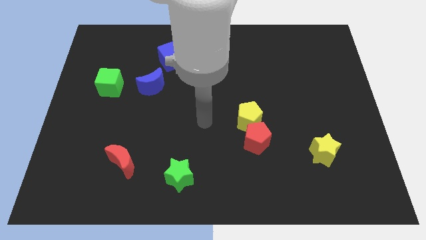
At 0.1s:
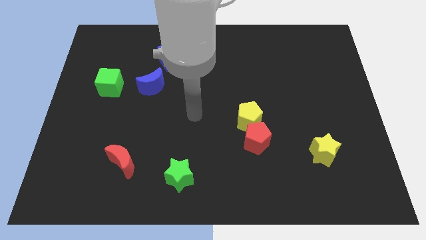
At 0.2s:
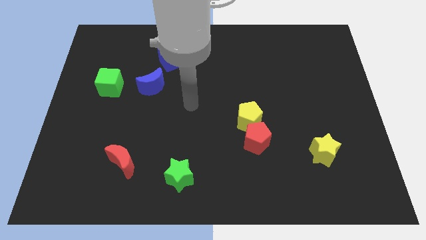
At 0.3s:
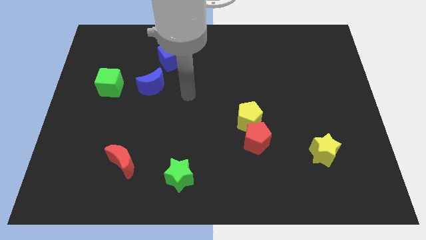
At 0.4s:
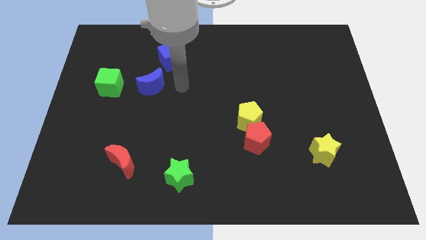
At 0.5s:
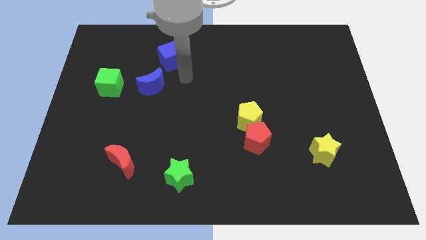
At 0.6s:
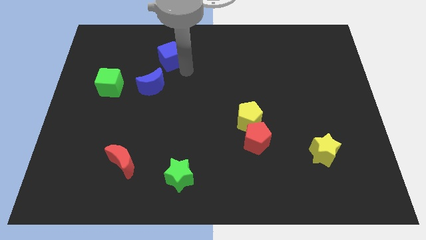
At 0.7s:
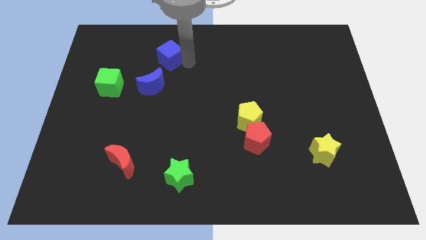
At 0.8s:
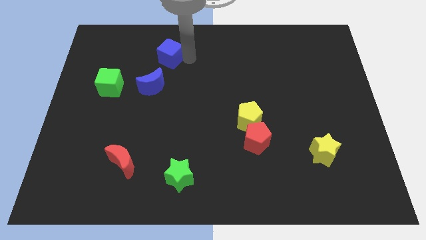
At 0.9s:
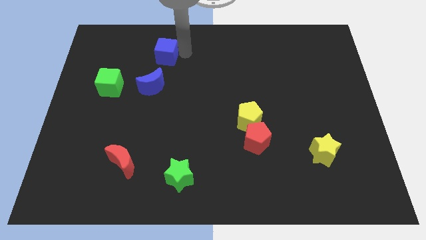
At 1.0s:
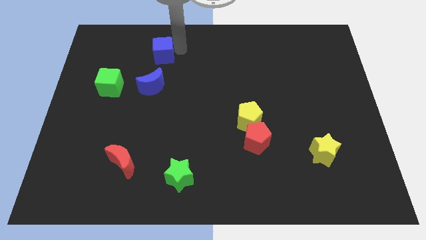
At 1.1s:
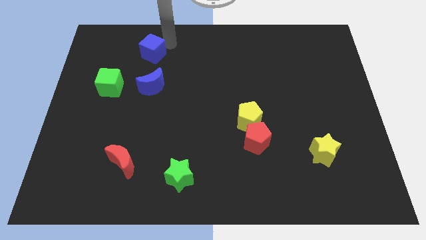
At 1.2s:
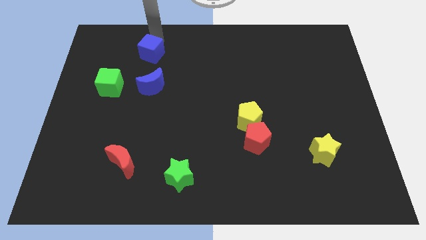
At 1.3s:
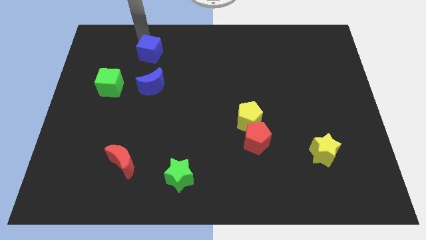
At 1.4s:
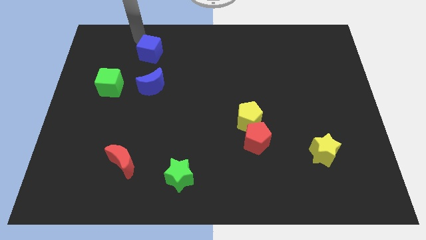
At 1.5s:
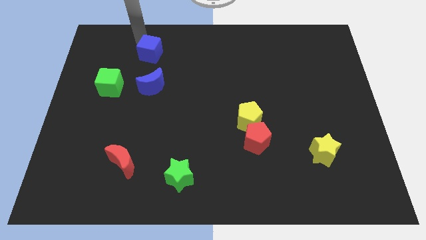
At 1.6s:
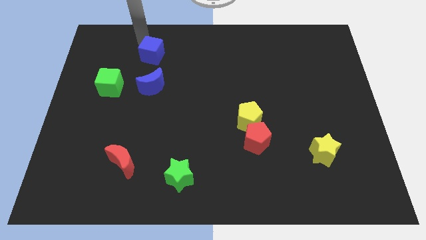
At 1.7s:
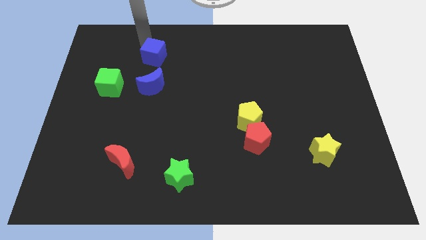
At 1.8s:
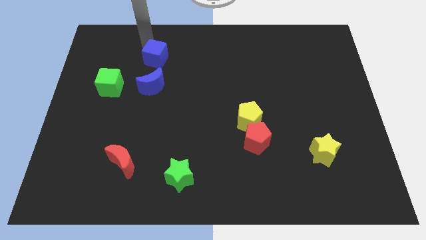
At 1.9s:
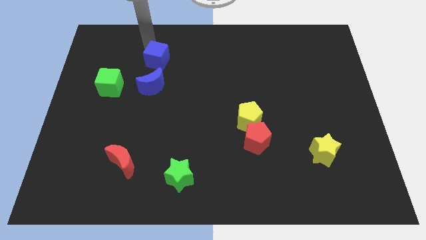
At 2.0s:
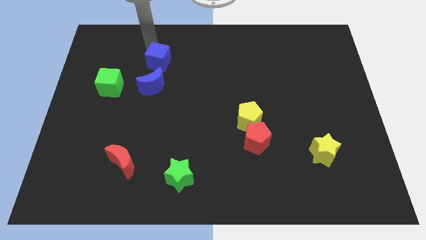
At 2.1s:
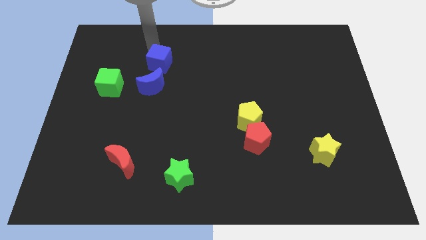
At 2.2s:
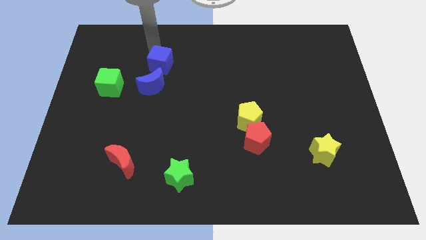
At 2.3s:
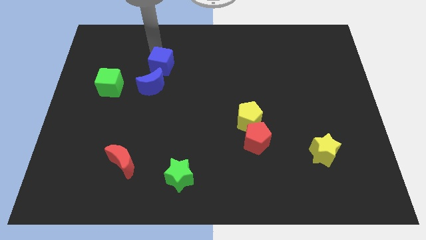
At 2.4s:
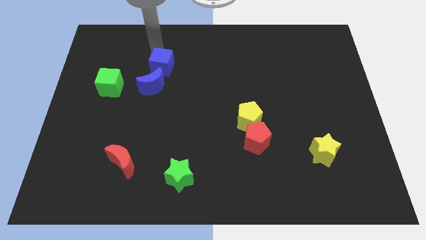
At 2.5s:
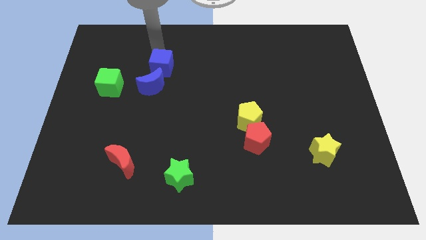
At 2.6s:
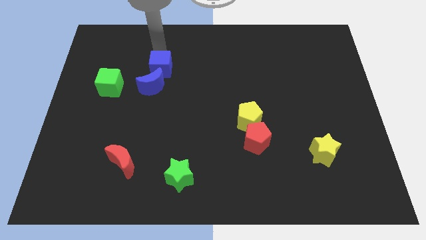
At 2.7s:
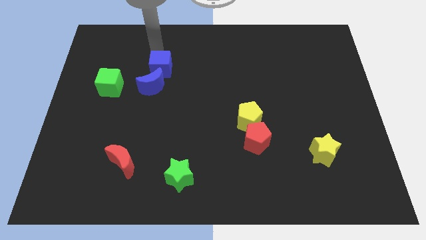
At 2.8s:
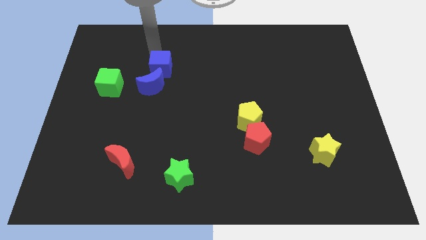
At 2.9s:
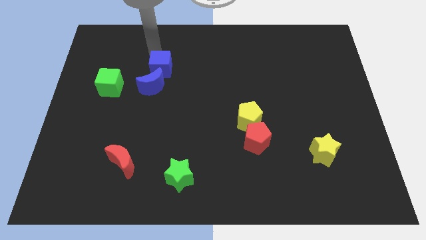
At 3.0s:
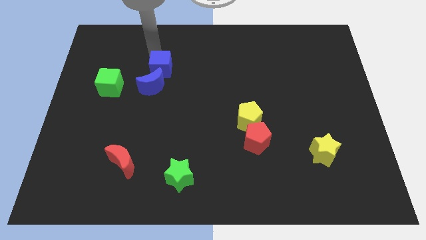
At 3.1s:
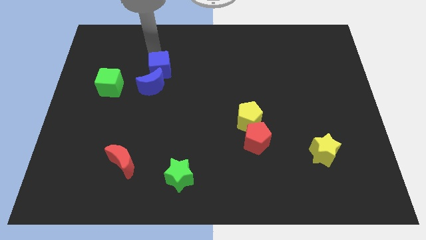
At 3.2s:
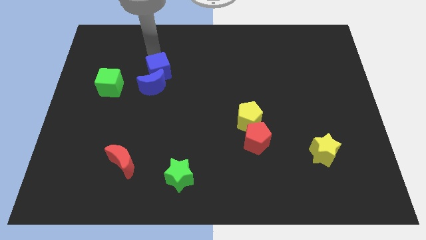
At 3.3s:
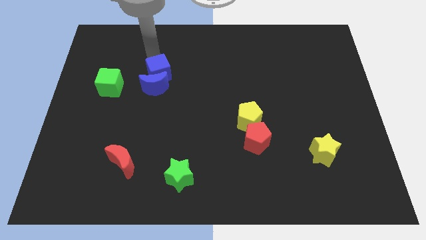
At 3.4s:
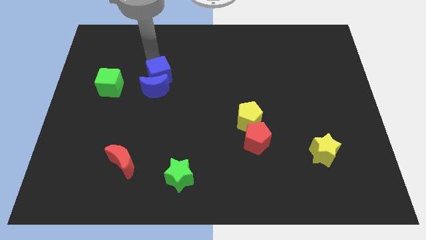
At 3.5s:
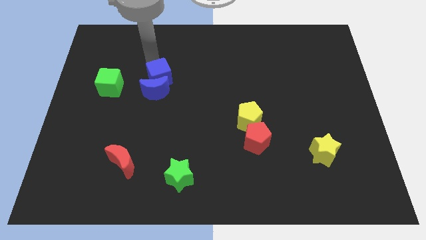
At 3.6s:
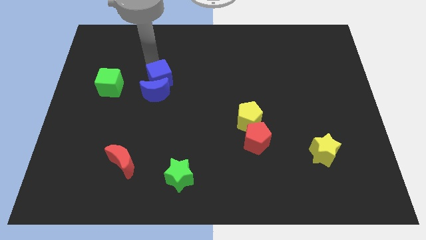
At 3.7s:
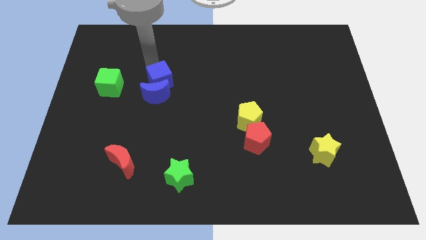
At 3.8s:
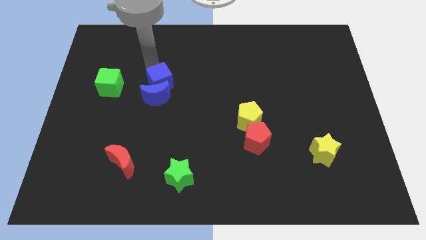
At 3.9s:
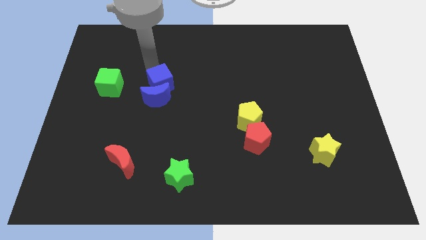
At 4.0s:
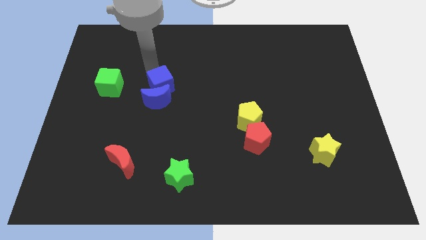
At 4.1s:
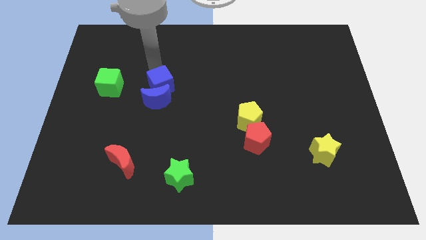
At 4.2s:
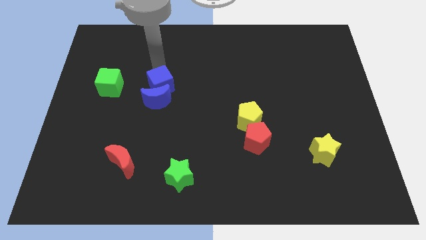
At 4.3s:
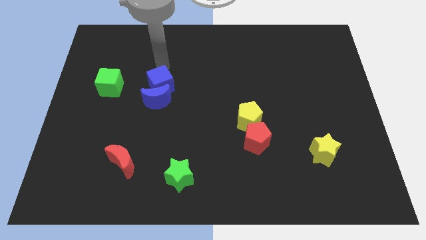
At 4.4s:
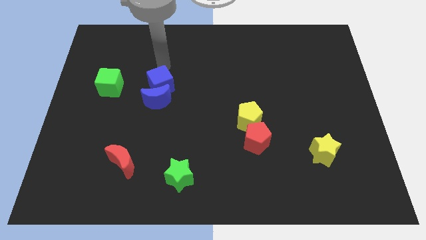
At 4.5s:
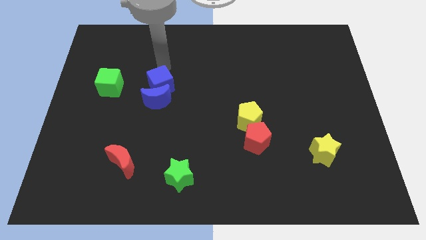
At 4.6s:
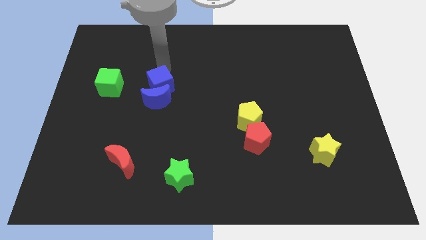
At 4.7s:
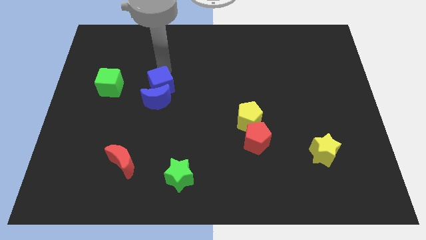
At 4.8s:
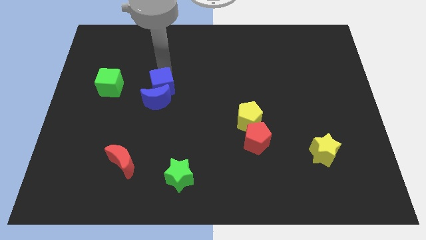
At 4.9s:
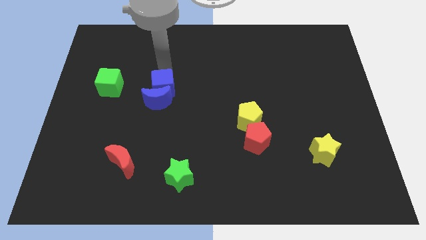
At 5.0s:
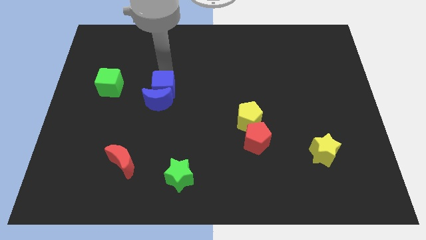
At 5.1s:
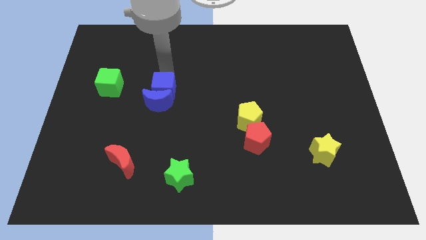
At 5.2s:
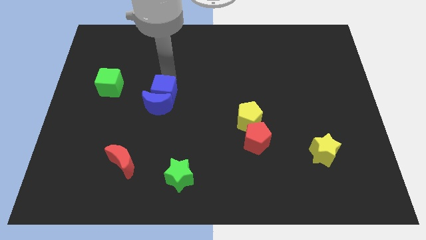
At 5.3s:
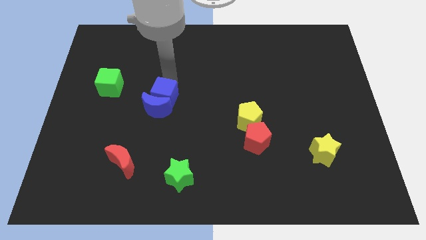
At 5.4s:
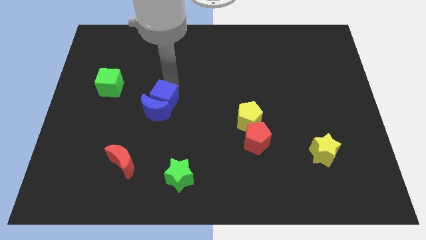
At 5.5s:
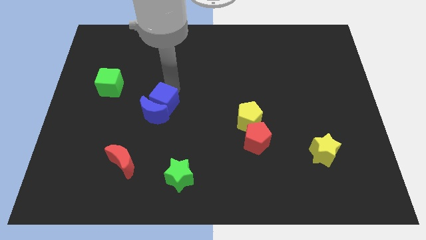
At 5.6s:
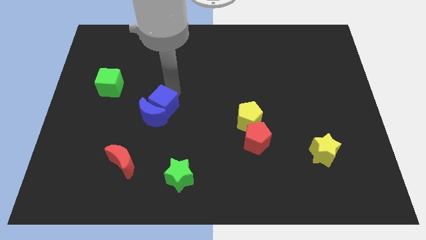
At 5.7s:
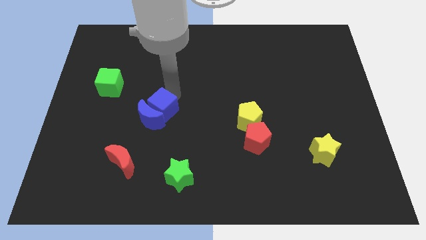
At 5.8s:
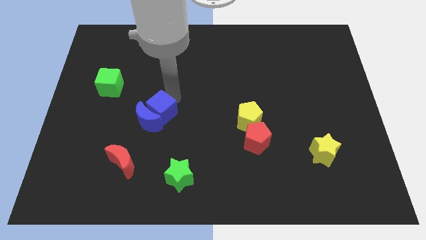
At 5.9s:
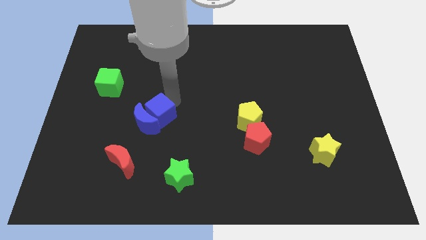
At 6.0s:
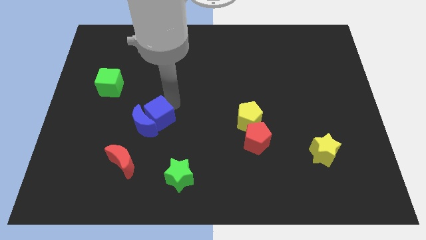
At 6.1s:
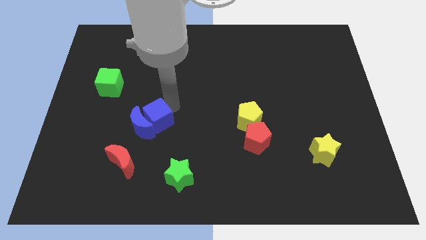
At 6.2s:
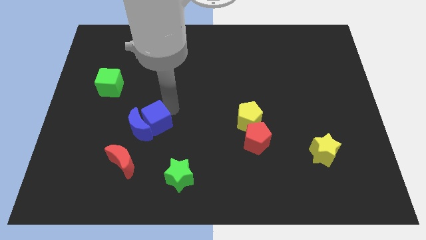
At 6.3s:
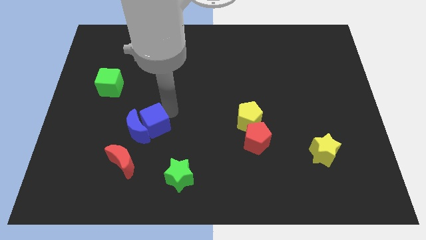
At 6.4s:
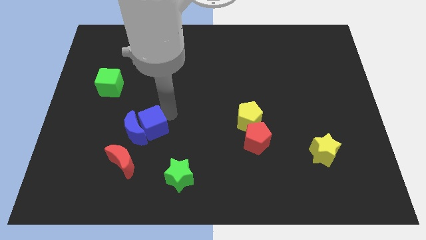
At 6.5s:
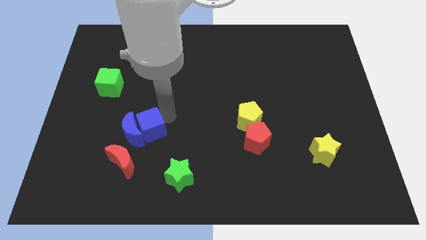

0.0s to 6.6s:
slide the blue cube to the top of the red moon
